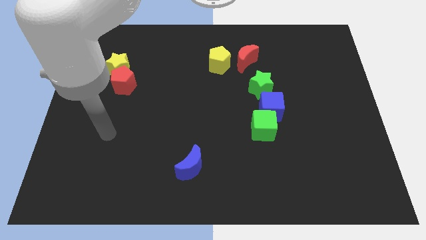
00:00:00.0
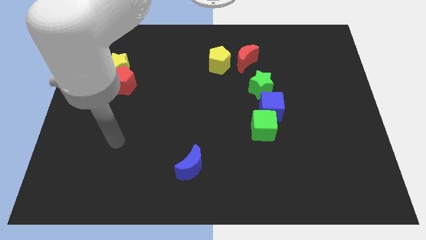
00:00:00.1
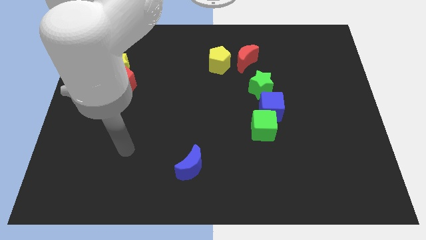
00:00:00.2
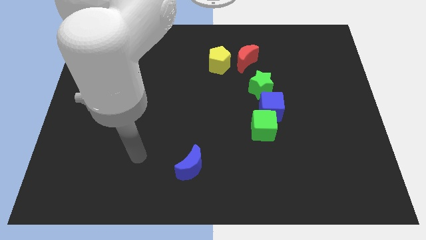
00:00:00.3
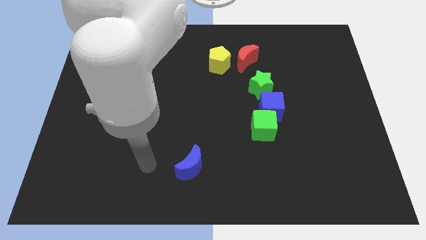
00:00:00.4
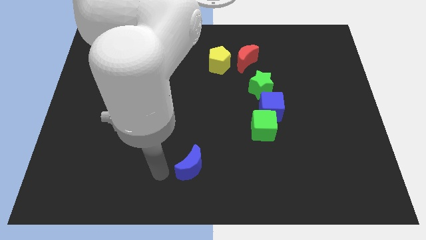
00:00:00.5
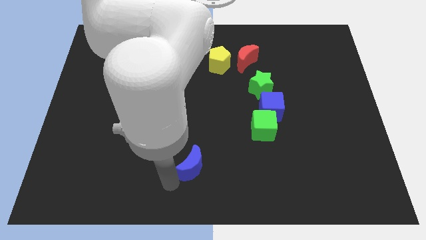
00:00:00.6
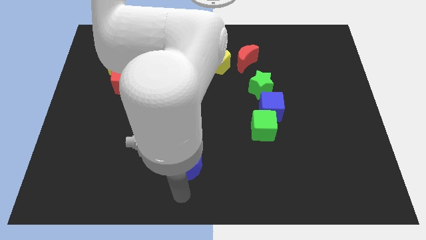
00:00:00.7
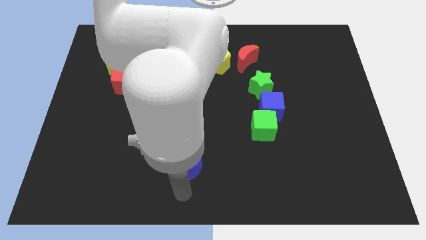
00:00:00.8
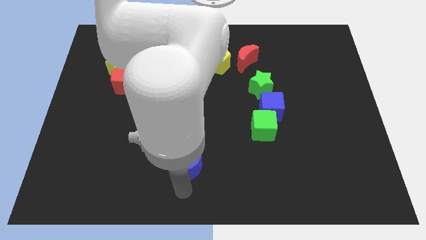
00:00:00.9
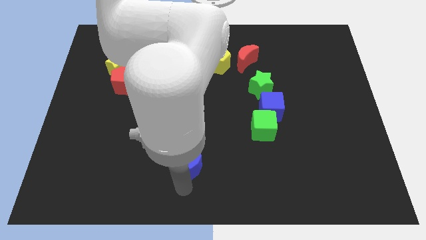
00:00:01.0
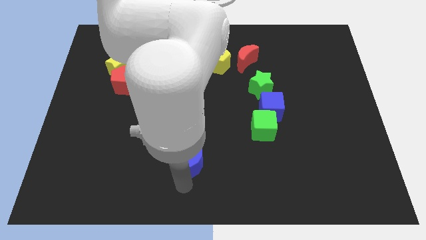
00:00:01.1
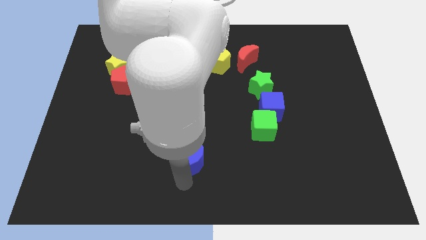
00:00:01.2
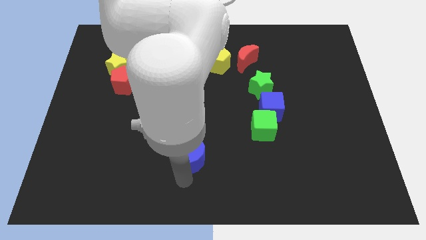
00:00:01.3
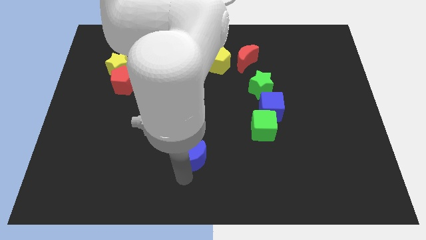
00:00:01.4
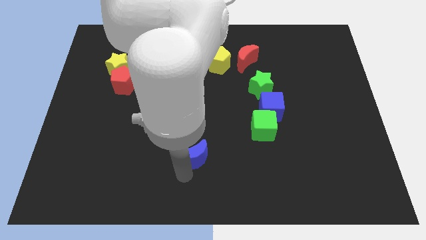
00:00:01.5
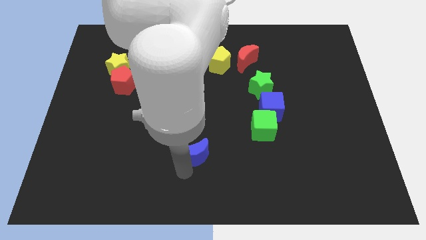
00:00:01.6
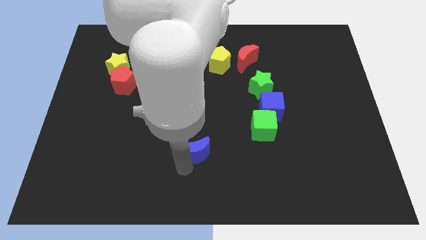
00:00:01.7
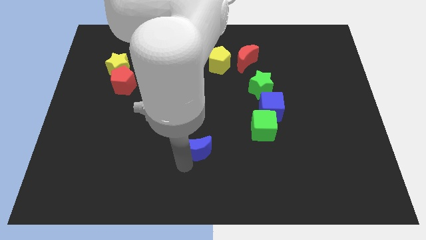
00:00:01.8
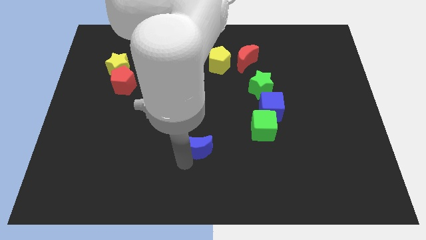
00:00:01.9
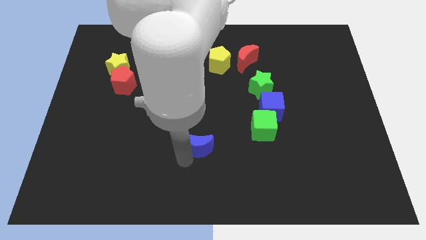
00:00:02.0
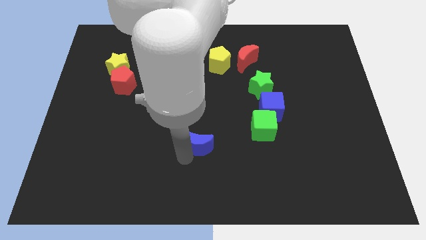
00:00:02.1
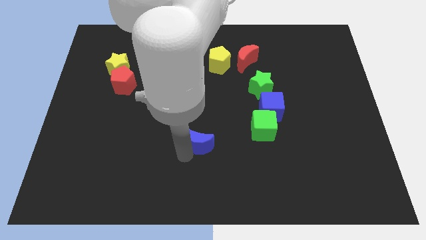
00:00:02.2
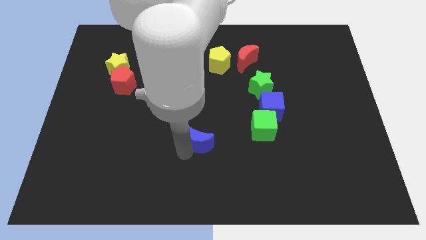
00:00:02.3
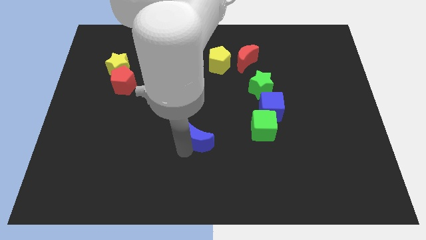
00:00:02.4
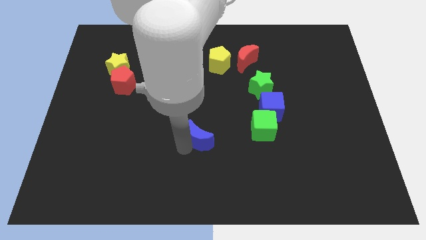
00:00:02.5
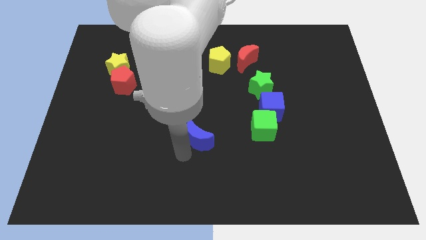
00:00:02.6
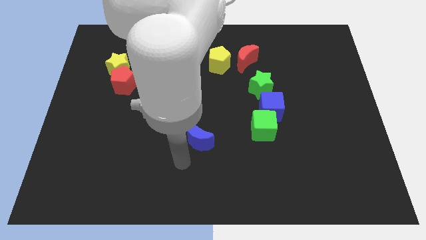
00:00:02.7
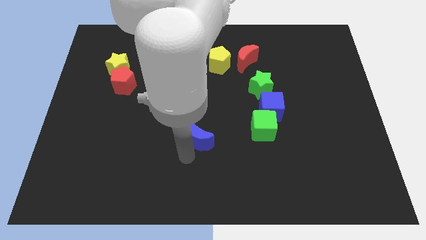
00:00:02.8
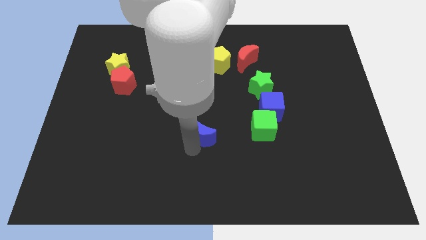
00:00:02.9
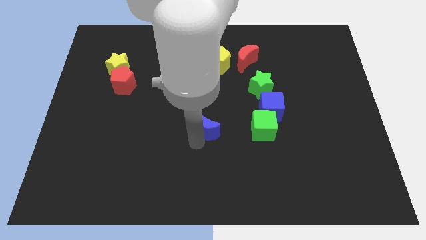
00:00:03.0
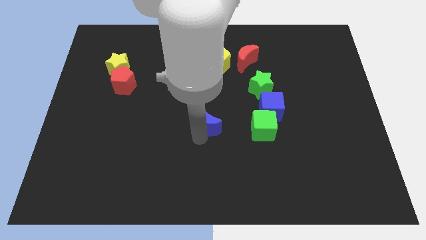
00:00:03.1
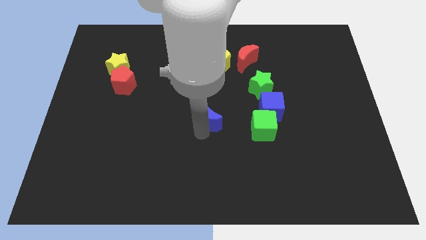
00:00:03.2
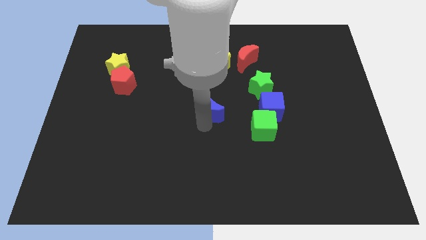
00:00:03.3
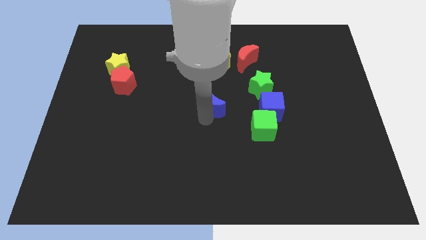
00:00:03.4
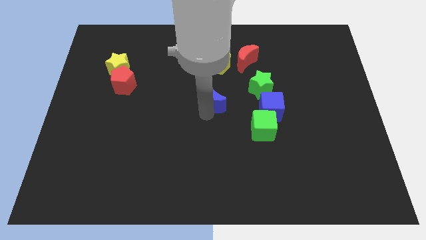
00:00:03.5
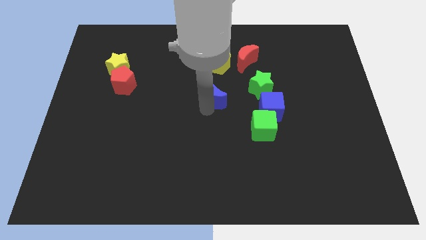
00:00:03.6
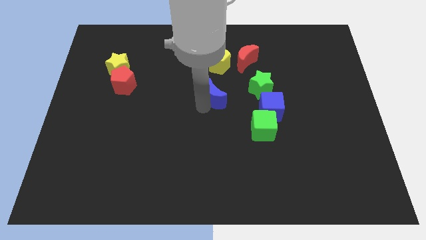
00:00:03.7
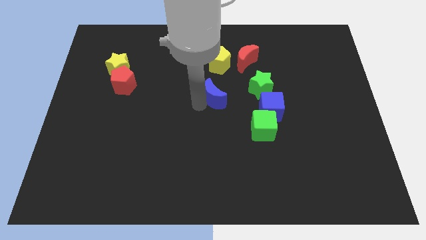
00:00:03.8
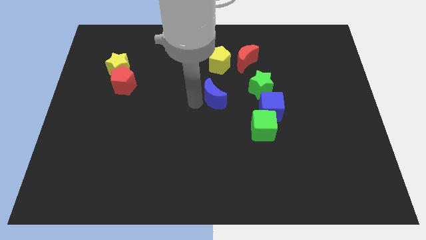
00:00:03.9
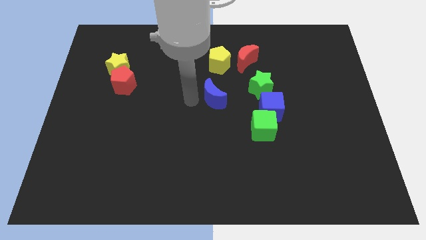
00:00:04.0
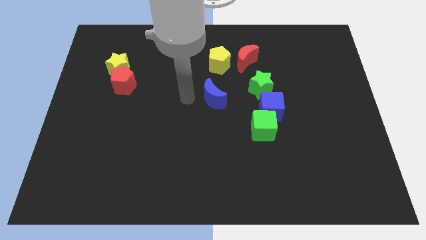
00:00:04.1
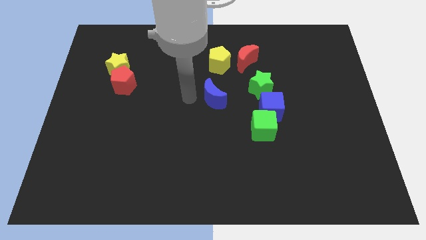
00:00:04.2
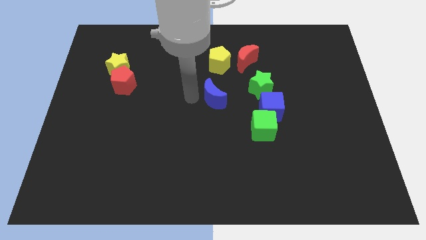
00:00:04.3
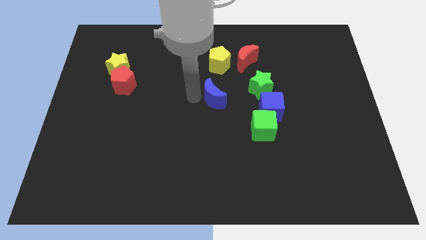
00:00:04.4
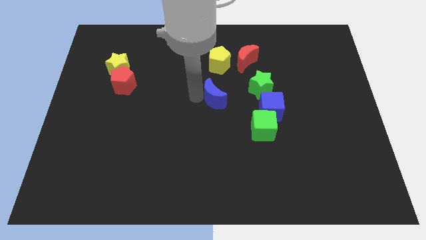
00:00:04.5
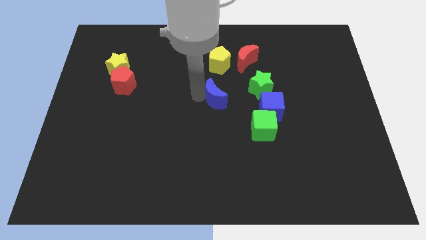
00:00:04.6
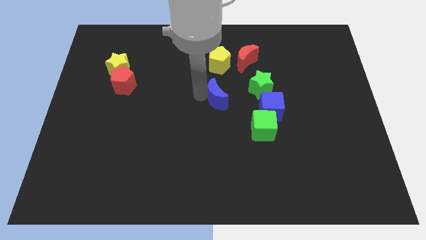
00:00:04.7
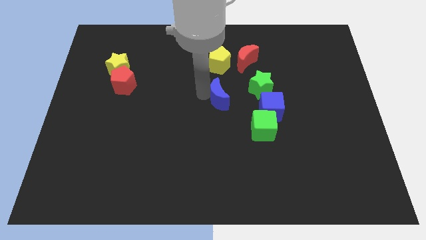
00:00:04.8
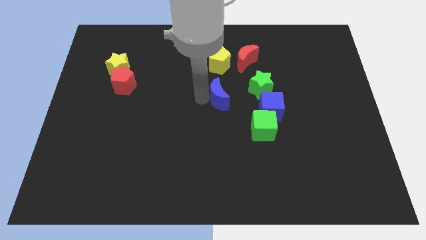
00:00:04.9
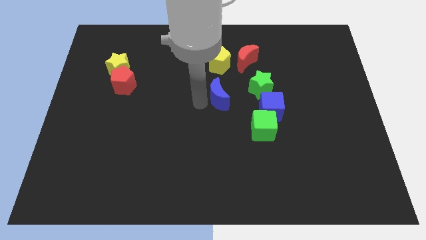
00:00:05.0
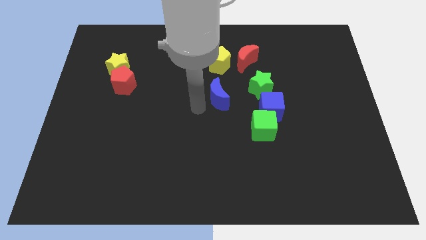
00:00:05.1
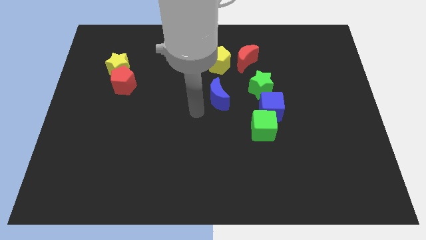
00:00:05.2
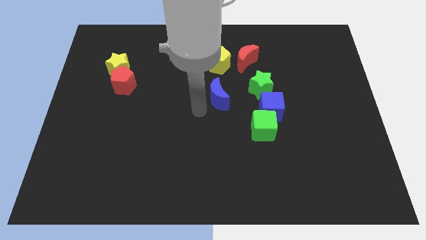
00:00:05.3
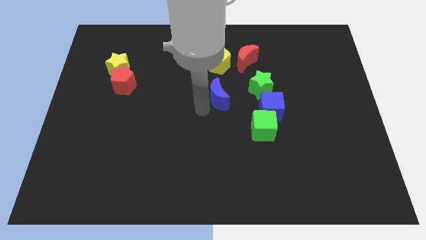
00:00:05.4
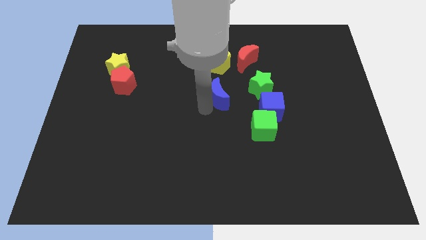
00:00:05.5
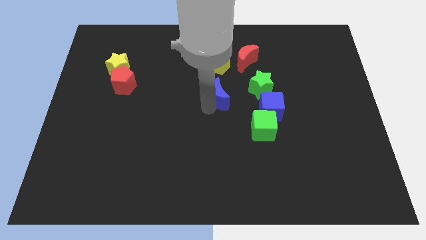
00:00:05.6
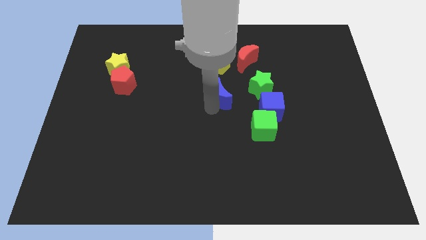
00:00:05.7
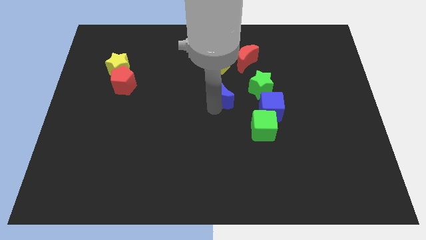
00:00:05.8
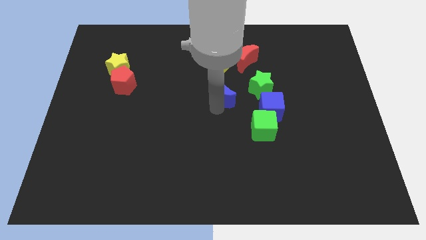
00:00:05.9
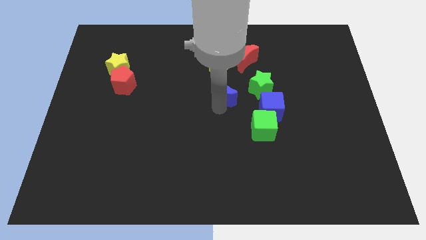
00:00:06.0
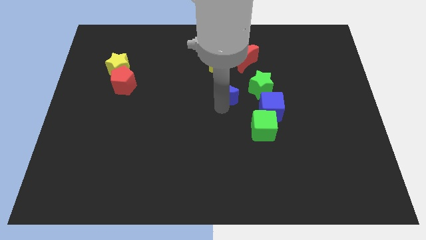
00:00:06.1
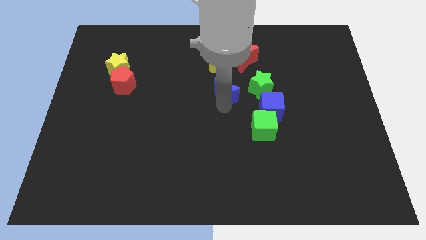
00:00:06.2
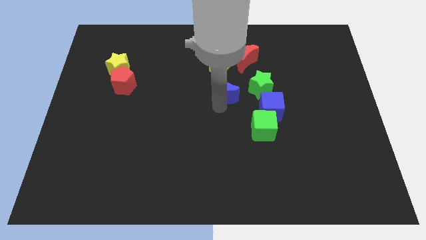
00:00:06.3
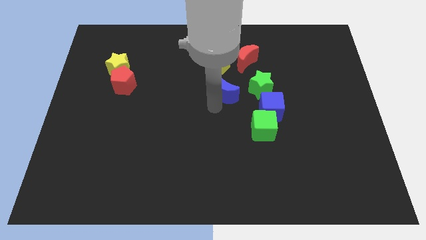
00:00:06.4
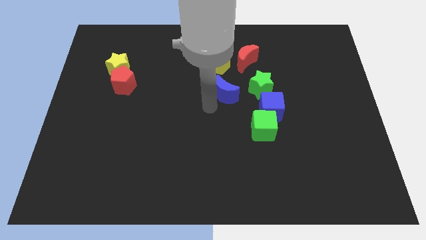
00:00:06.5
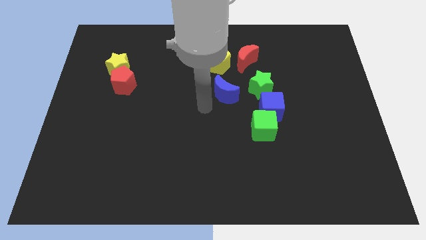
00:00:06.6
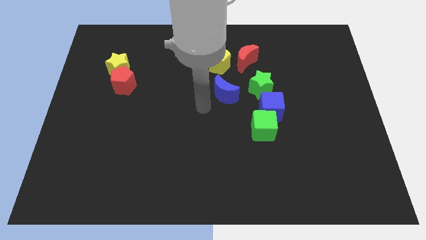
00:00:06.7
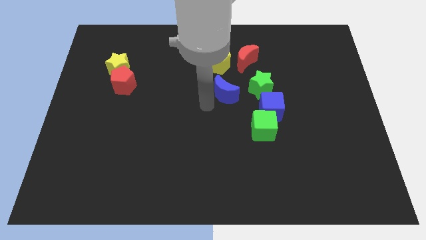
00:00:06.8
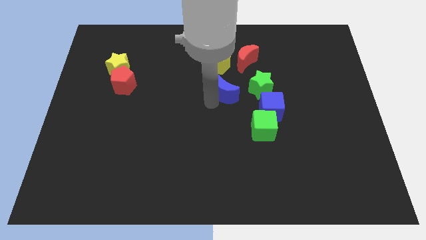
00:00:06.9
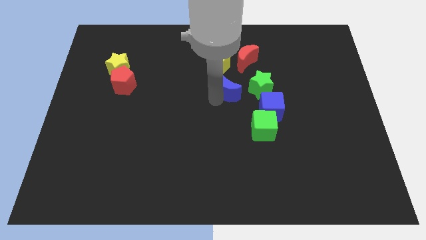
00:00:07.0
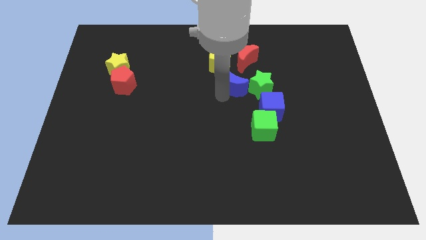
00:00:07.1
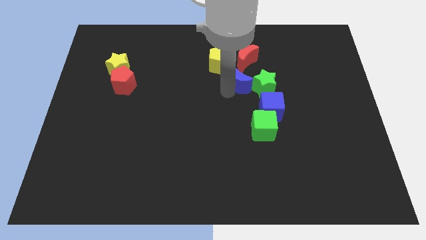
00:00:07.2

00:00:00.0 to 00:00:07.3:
slide the blue moon up and then to the right

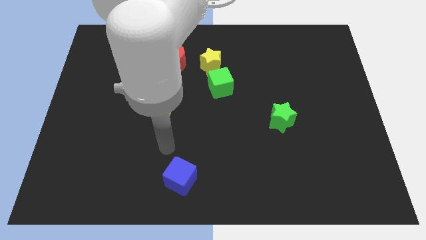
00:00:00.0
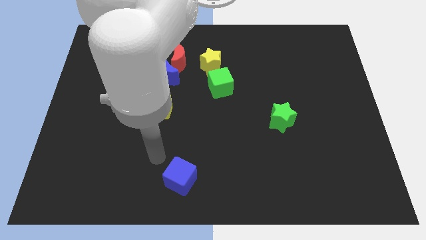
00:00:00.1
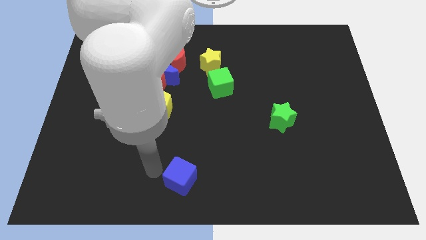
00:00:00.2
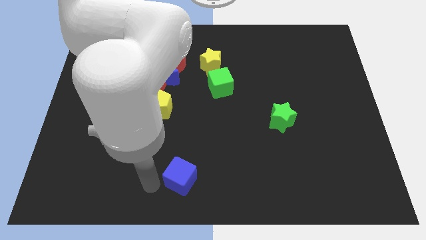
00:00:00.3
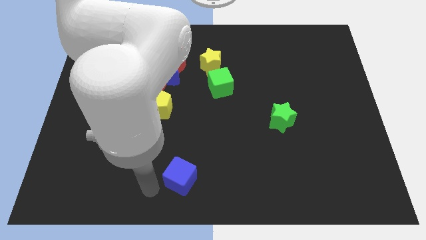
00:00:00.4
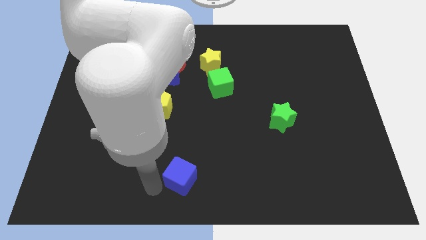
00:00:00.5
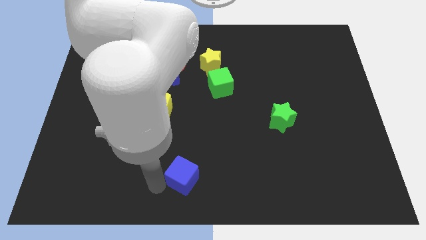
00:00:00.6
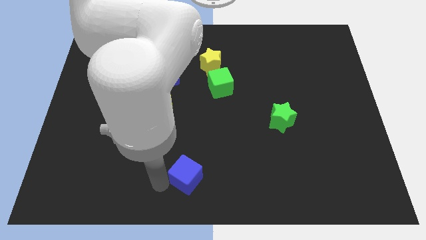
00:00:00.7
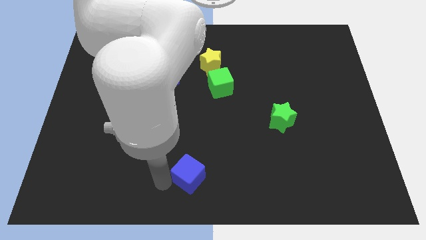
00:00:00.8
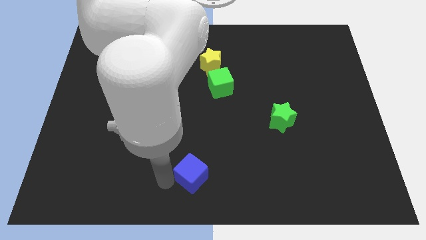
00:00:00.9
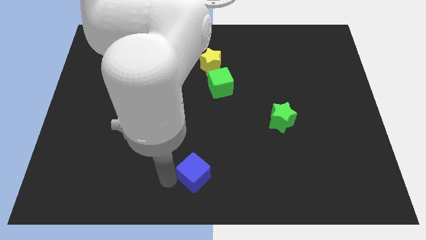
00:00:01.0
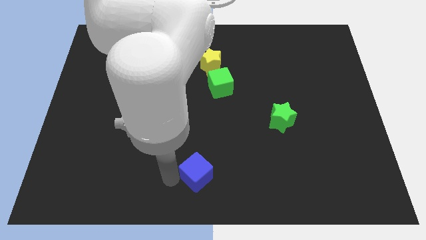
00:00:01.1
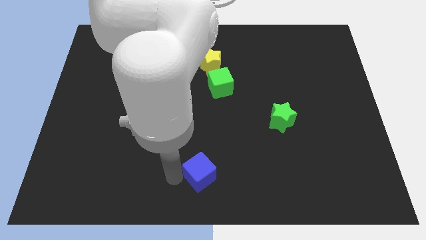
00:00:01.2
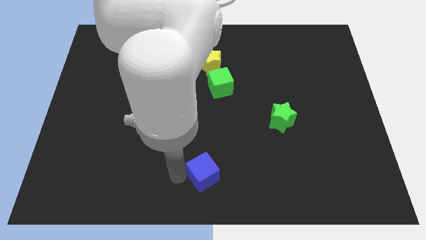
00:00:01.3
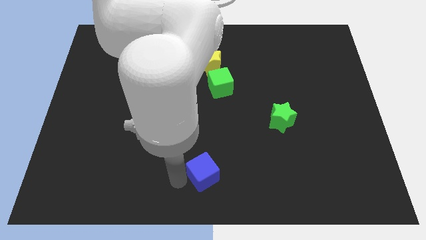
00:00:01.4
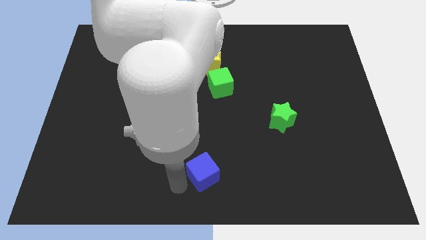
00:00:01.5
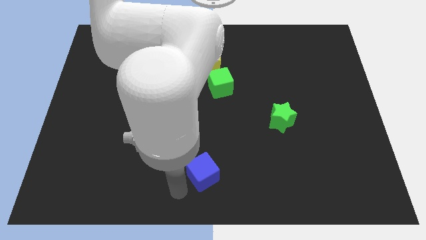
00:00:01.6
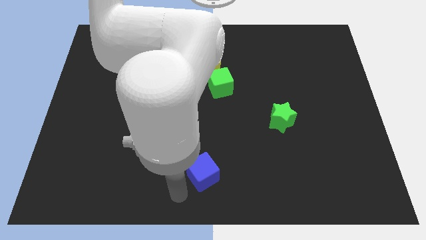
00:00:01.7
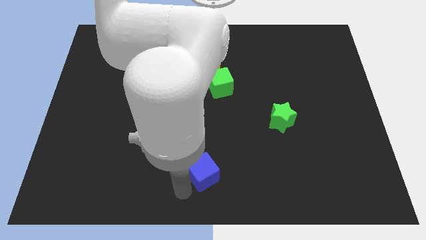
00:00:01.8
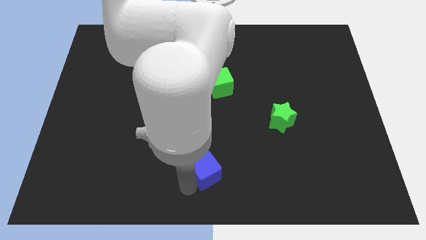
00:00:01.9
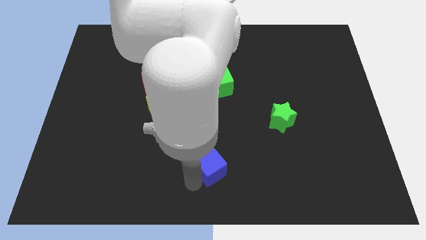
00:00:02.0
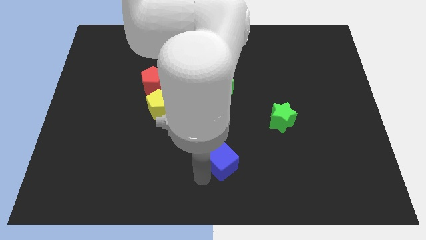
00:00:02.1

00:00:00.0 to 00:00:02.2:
slightly move the blue cube up and then to the right
